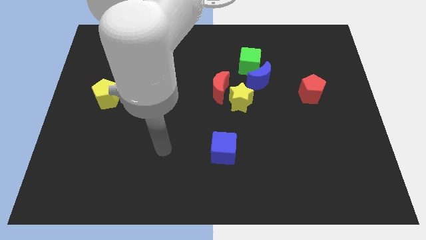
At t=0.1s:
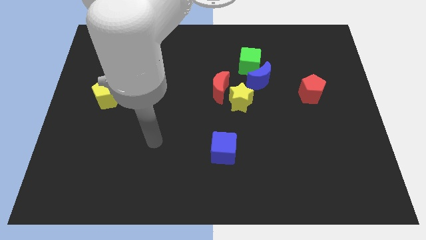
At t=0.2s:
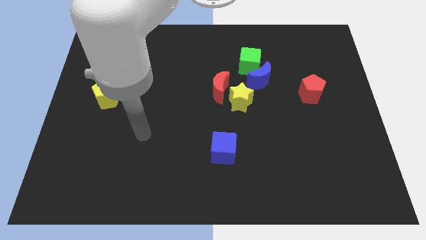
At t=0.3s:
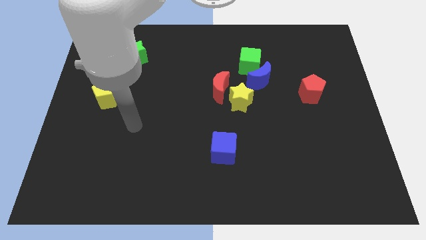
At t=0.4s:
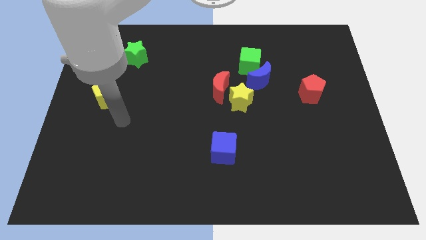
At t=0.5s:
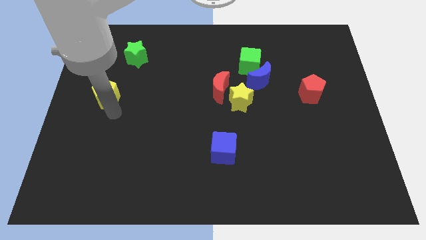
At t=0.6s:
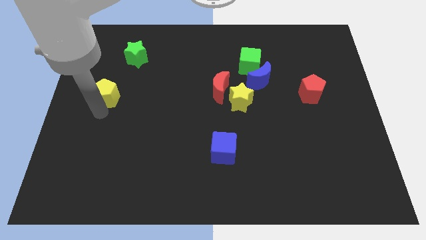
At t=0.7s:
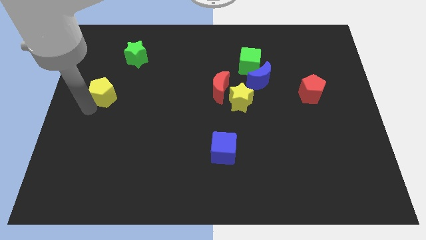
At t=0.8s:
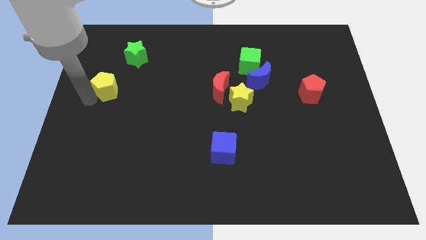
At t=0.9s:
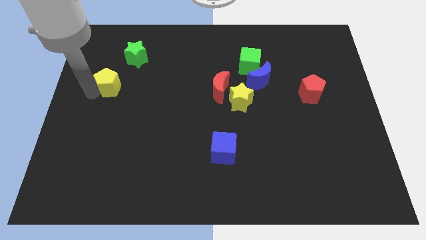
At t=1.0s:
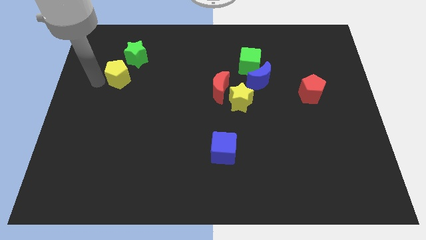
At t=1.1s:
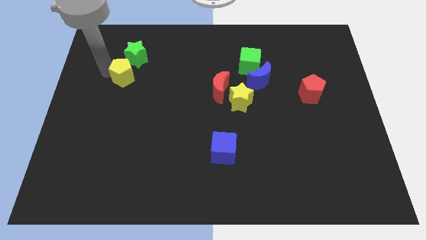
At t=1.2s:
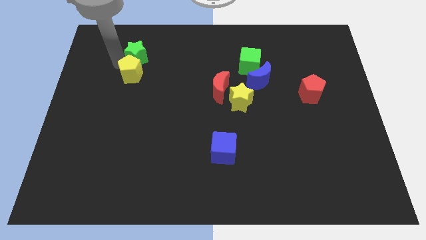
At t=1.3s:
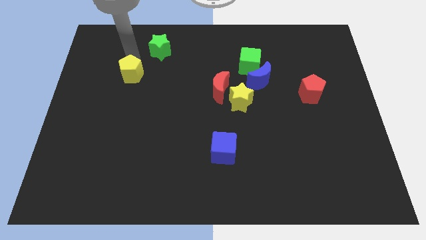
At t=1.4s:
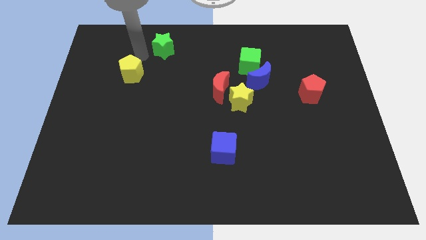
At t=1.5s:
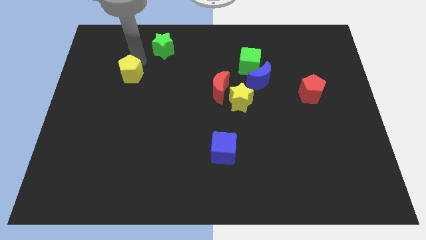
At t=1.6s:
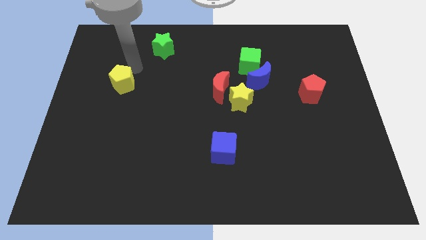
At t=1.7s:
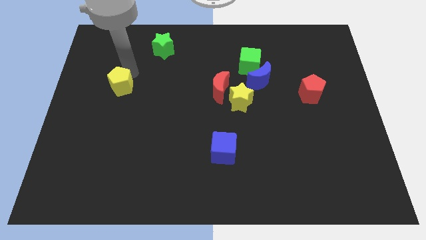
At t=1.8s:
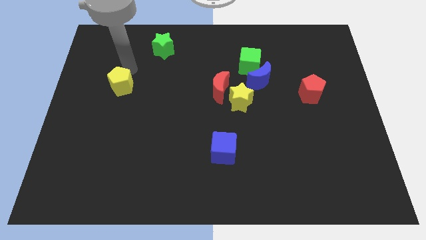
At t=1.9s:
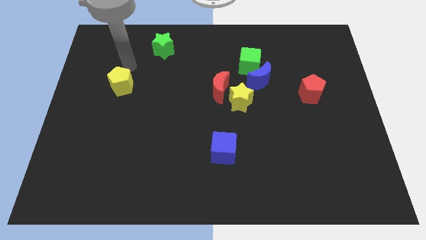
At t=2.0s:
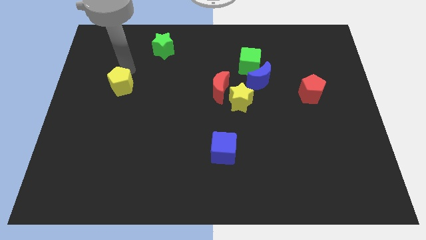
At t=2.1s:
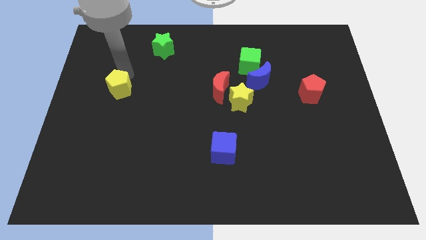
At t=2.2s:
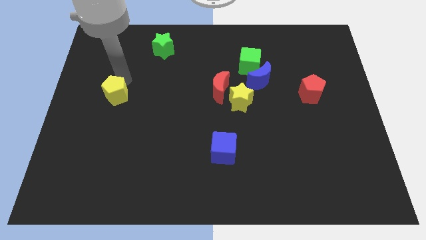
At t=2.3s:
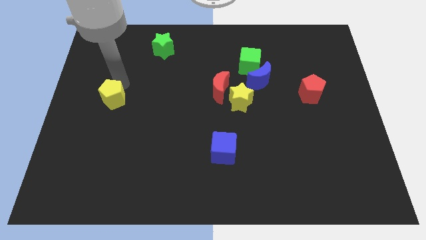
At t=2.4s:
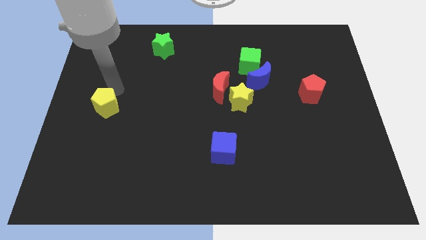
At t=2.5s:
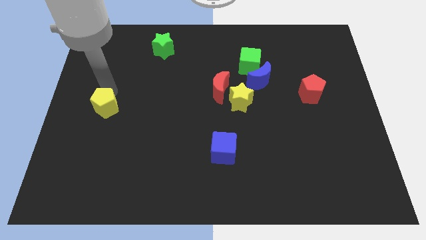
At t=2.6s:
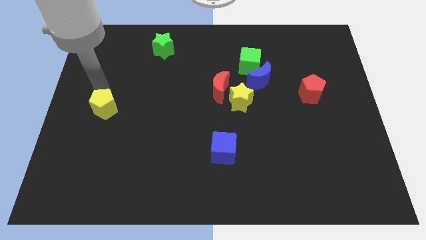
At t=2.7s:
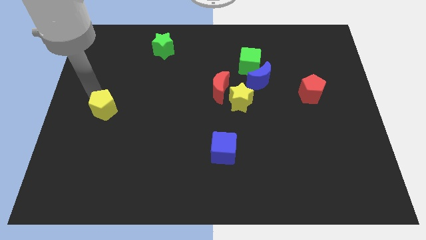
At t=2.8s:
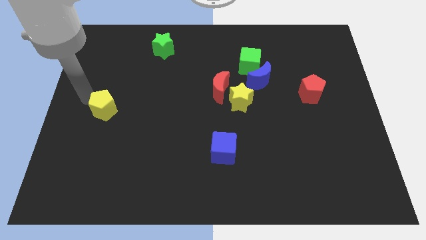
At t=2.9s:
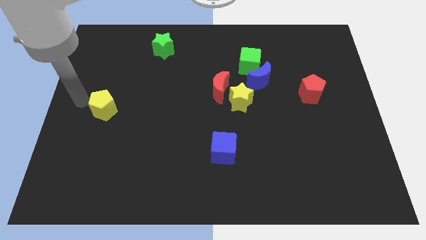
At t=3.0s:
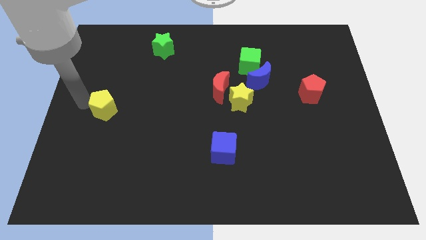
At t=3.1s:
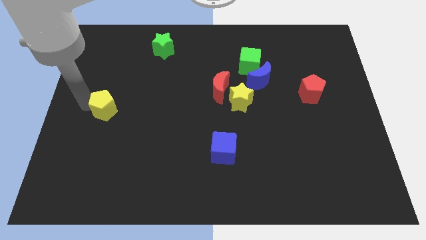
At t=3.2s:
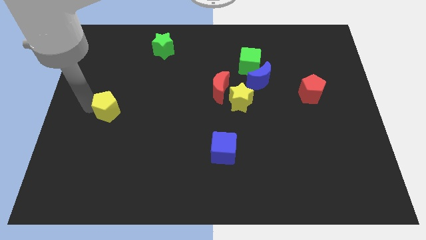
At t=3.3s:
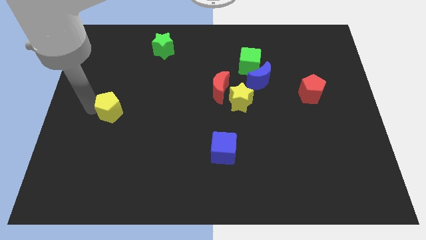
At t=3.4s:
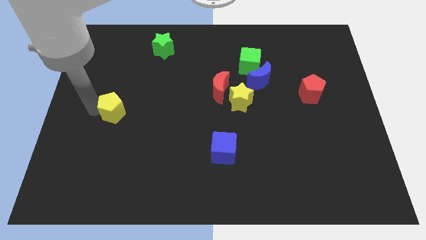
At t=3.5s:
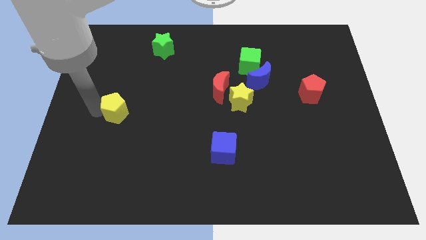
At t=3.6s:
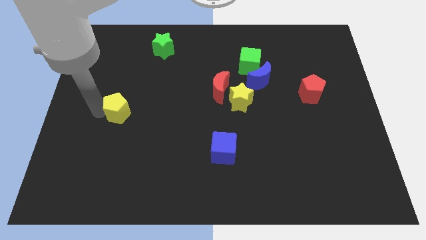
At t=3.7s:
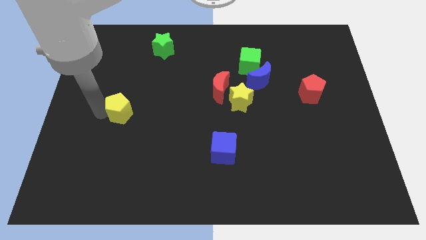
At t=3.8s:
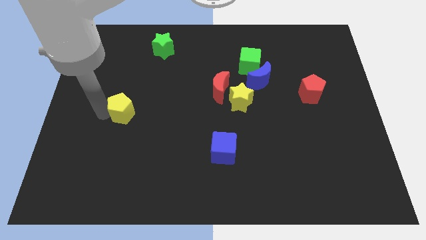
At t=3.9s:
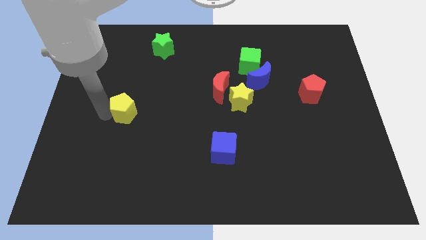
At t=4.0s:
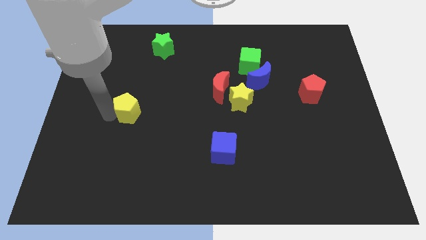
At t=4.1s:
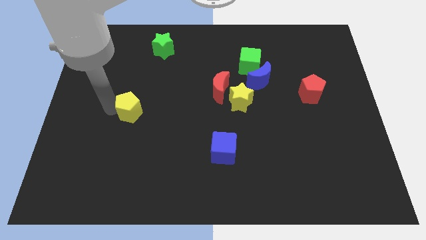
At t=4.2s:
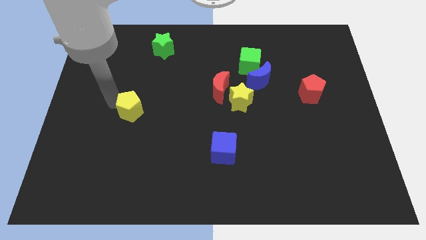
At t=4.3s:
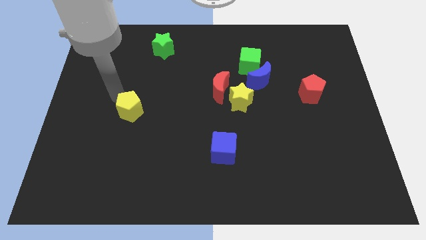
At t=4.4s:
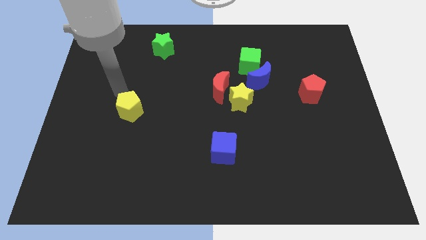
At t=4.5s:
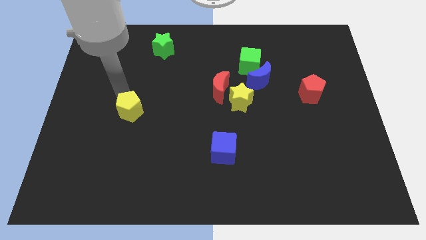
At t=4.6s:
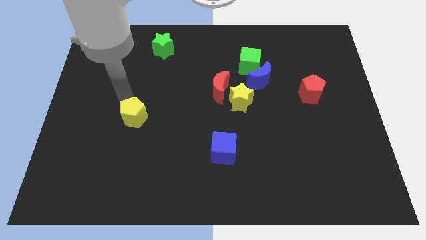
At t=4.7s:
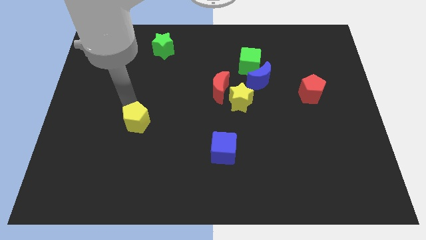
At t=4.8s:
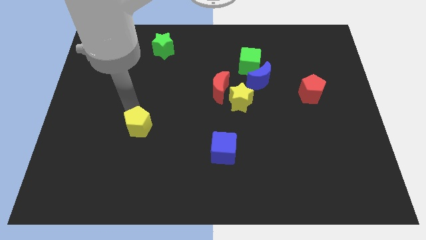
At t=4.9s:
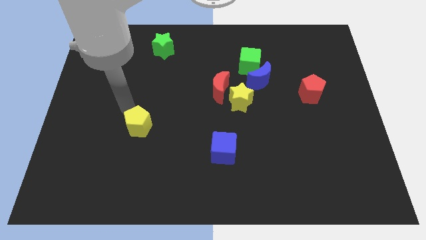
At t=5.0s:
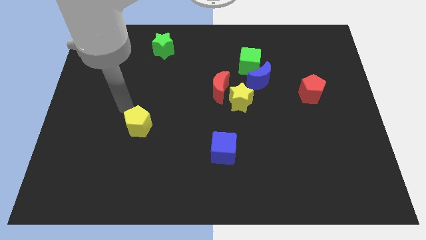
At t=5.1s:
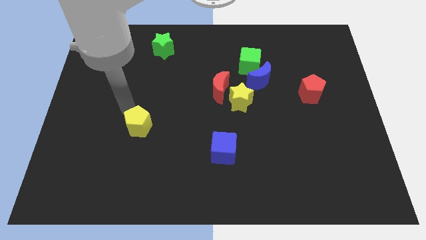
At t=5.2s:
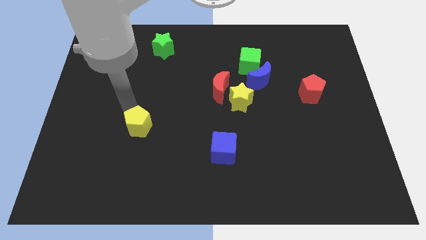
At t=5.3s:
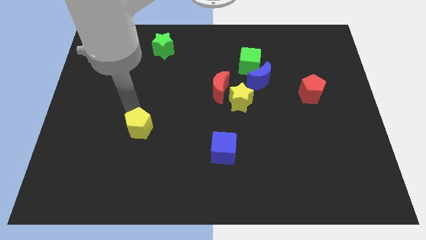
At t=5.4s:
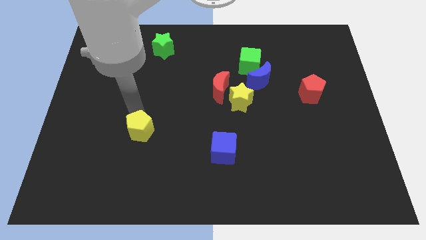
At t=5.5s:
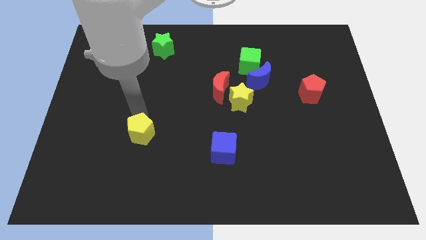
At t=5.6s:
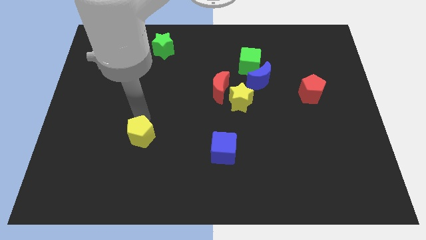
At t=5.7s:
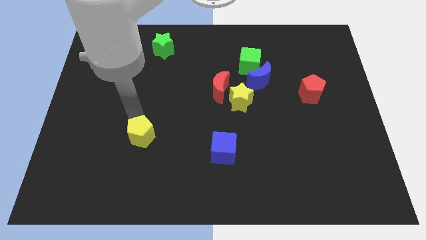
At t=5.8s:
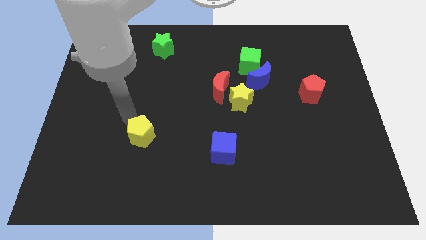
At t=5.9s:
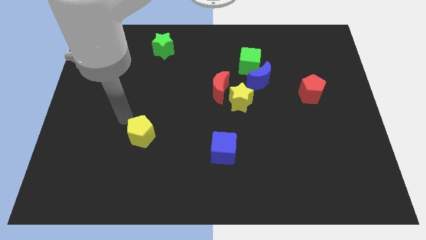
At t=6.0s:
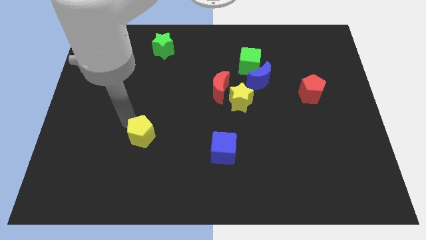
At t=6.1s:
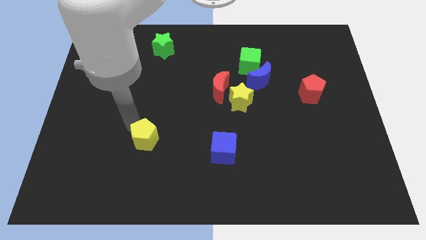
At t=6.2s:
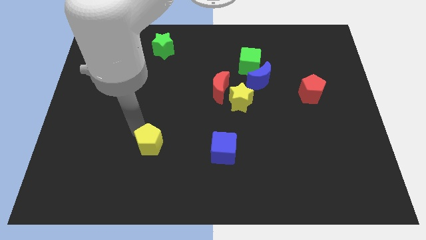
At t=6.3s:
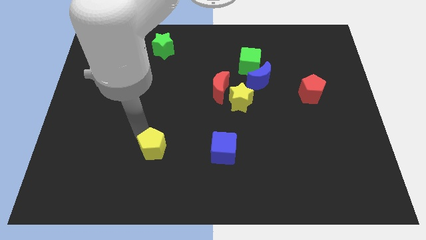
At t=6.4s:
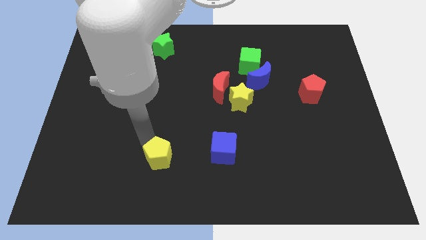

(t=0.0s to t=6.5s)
push the yellow pentagon downwards and then right

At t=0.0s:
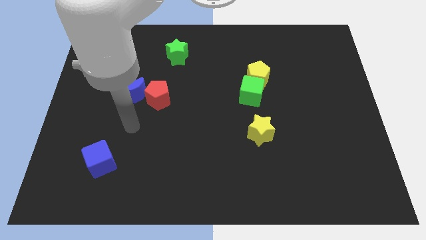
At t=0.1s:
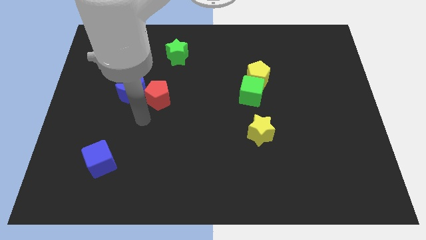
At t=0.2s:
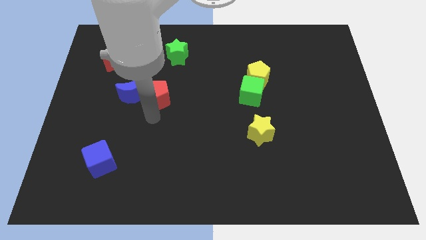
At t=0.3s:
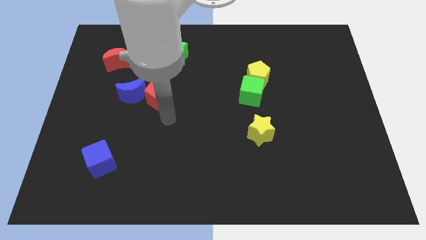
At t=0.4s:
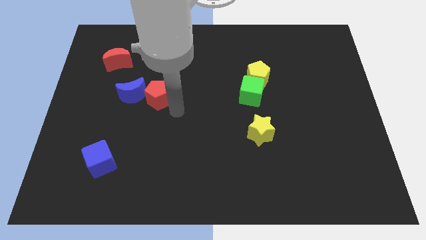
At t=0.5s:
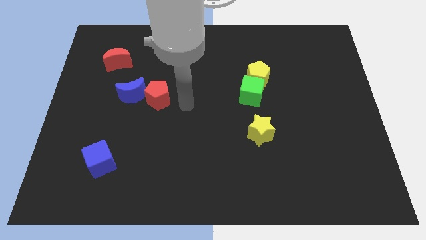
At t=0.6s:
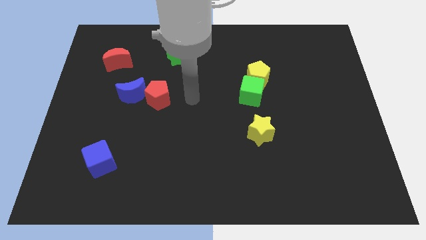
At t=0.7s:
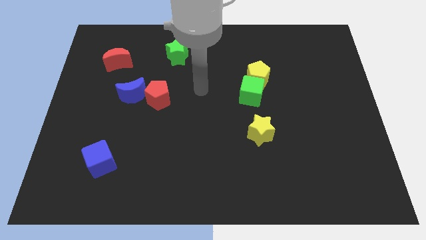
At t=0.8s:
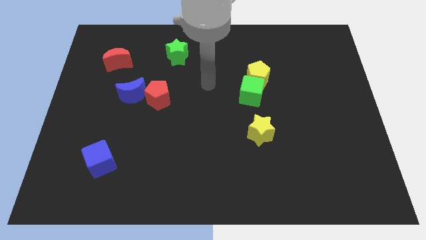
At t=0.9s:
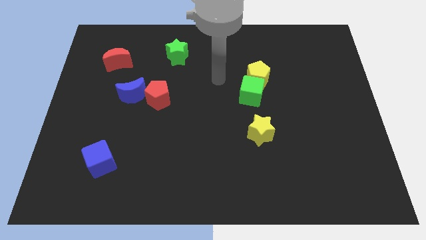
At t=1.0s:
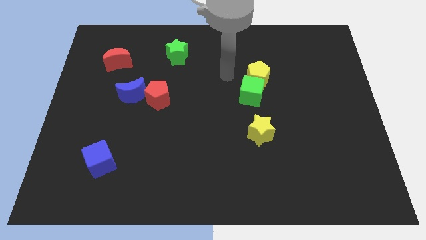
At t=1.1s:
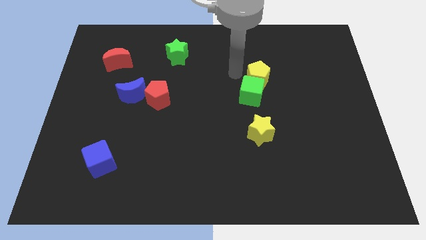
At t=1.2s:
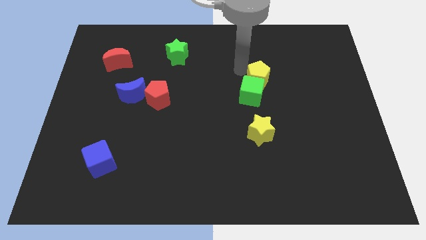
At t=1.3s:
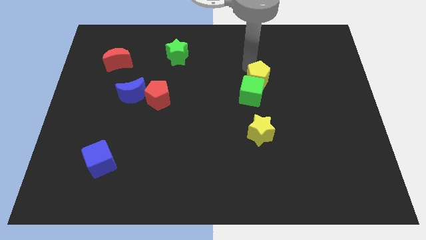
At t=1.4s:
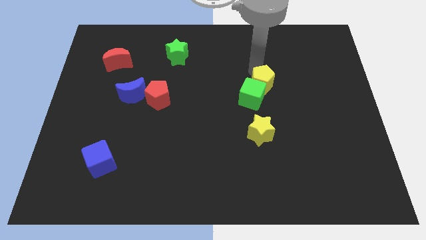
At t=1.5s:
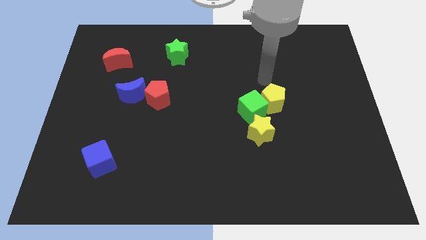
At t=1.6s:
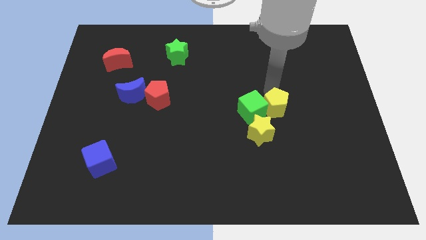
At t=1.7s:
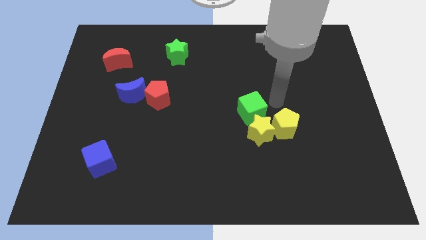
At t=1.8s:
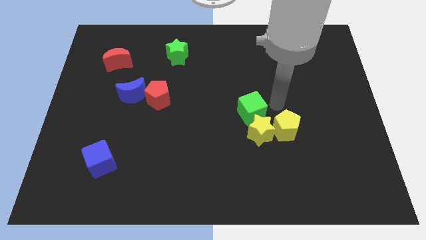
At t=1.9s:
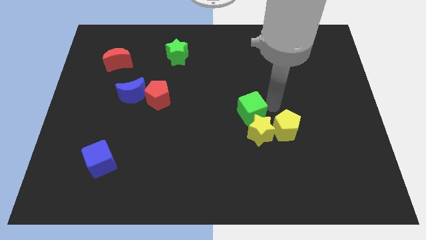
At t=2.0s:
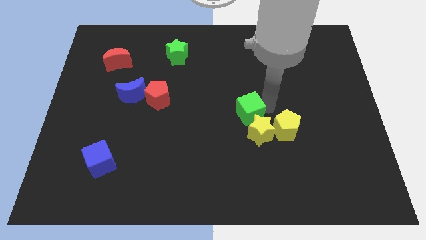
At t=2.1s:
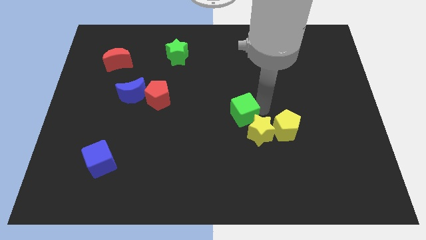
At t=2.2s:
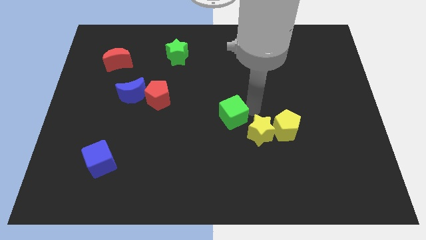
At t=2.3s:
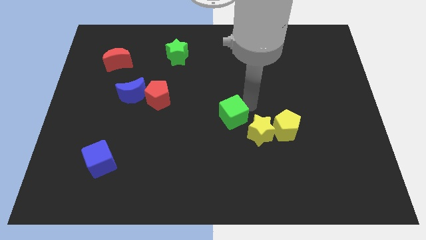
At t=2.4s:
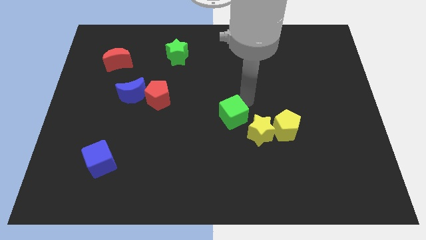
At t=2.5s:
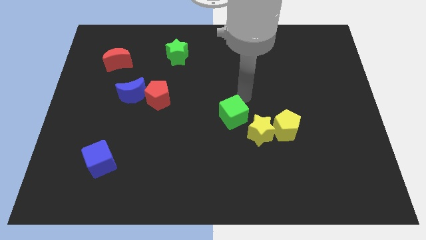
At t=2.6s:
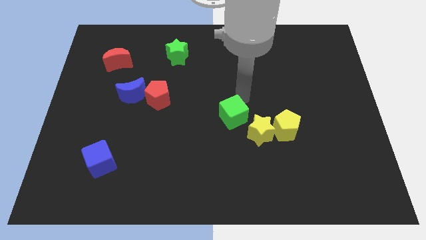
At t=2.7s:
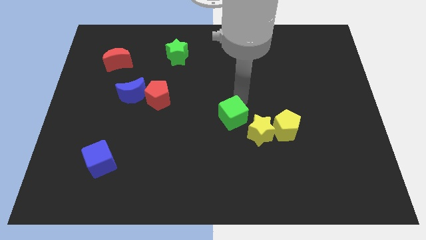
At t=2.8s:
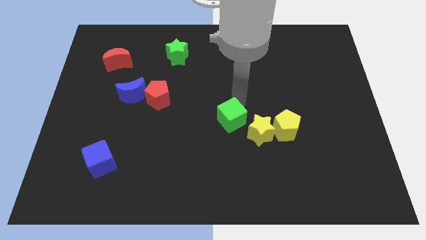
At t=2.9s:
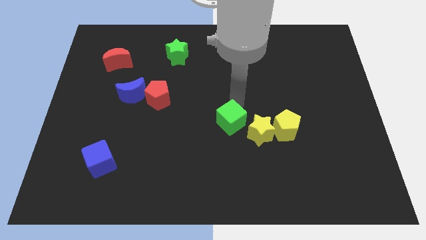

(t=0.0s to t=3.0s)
push the green cube a little bit downwards
